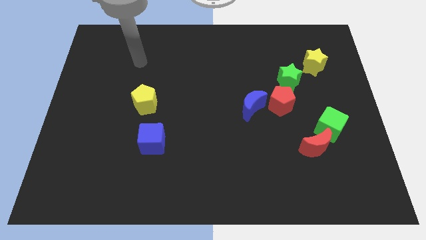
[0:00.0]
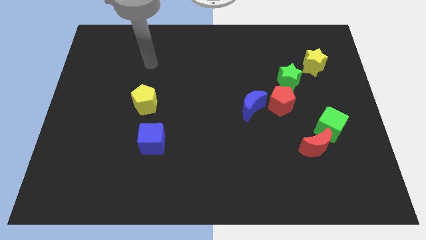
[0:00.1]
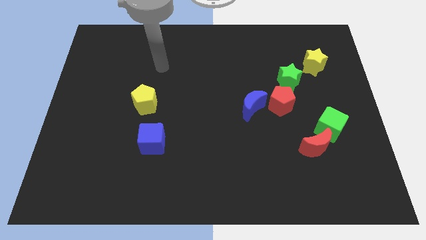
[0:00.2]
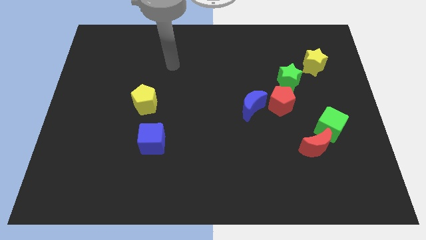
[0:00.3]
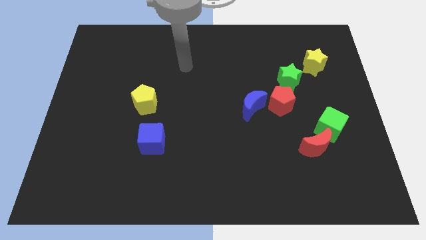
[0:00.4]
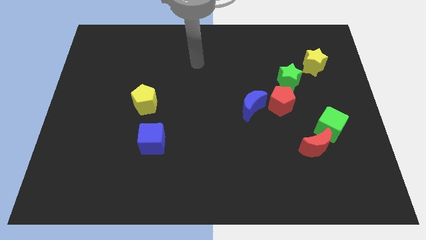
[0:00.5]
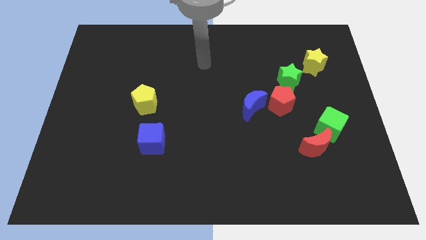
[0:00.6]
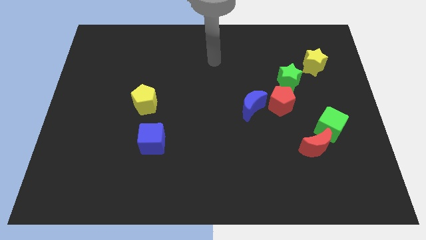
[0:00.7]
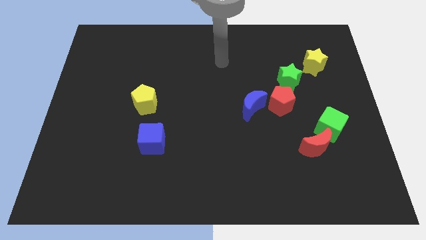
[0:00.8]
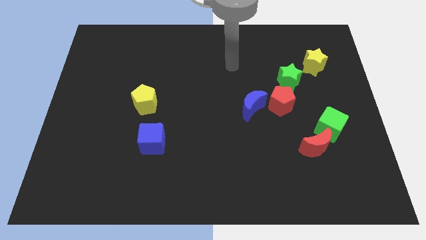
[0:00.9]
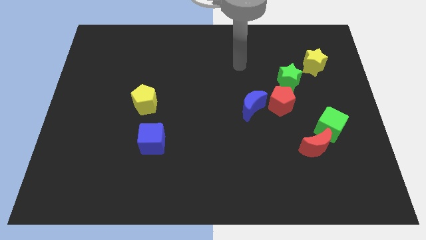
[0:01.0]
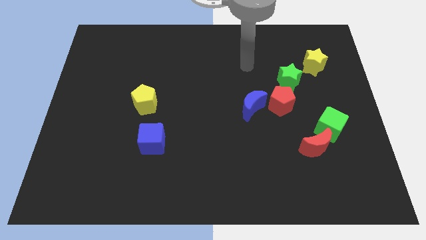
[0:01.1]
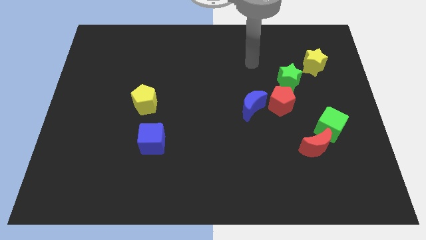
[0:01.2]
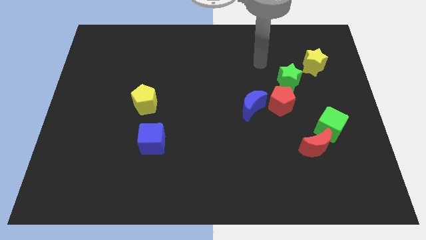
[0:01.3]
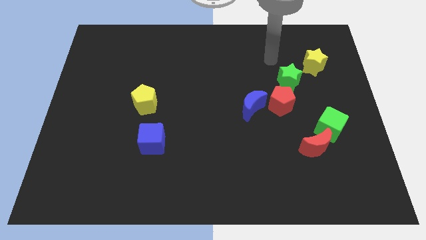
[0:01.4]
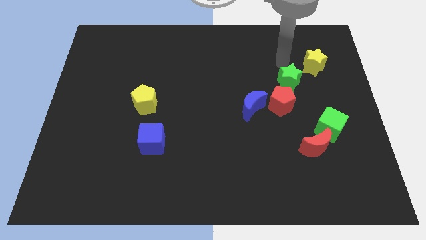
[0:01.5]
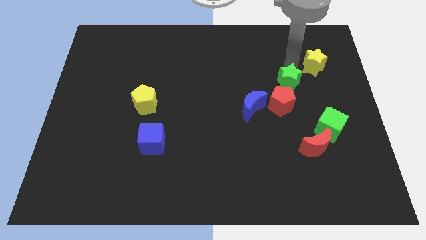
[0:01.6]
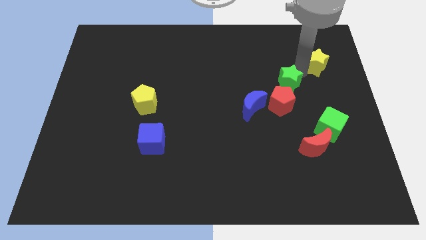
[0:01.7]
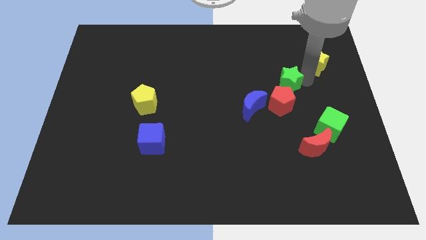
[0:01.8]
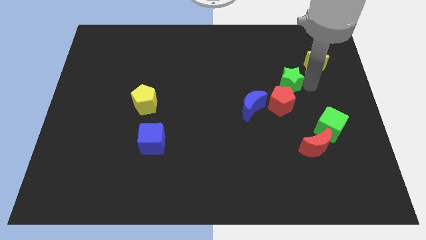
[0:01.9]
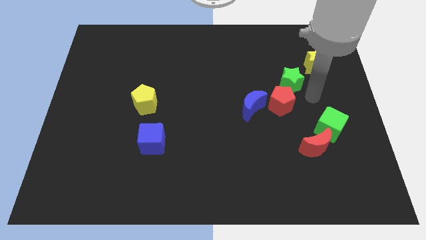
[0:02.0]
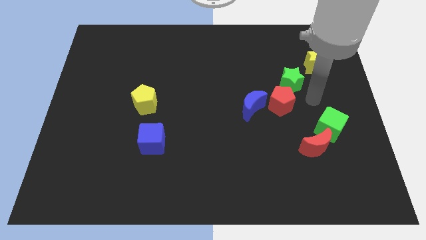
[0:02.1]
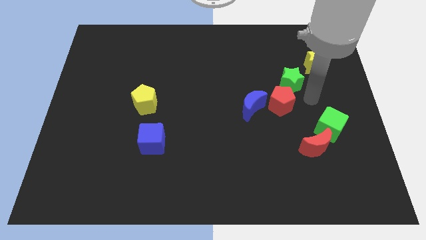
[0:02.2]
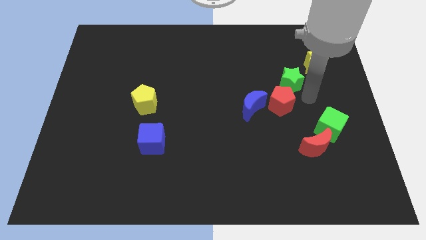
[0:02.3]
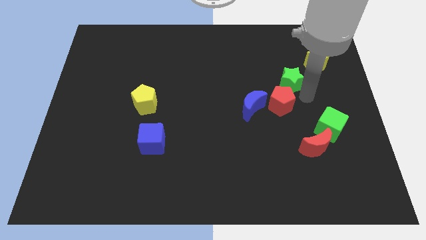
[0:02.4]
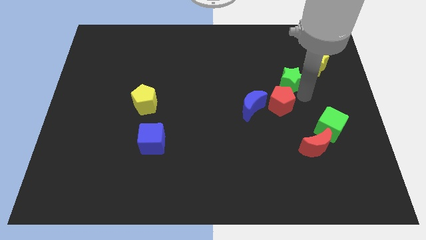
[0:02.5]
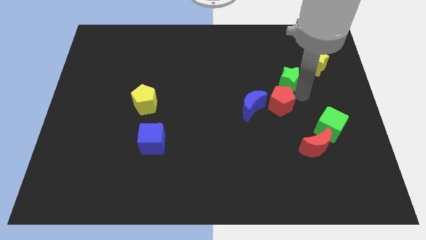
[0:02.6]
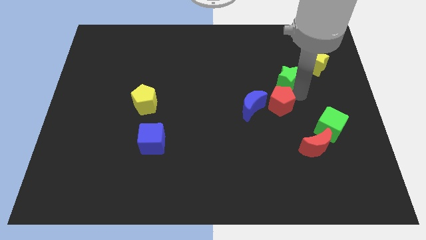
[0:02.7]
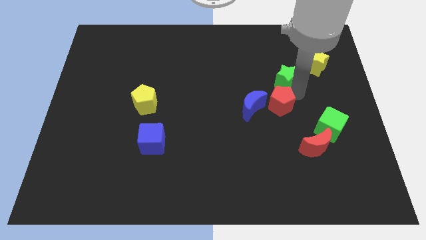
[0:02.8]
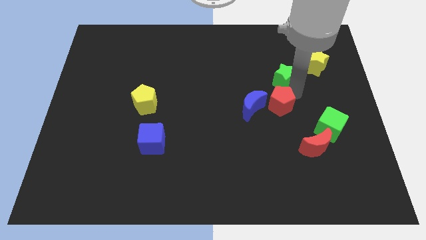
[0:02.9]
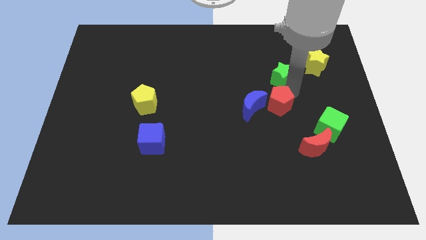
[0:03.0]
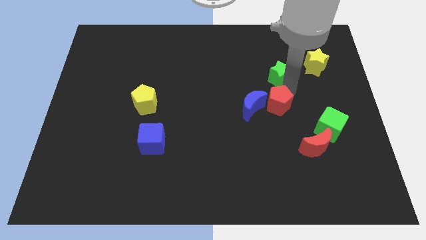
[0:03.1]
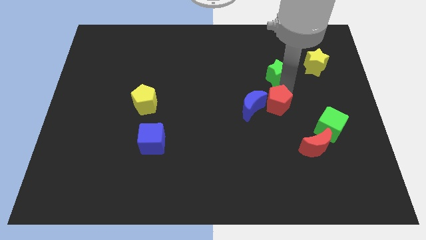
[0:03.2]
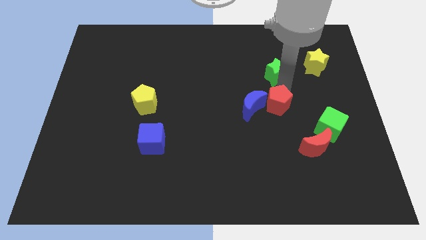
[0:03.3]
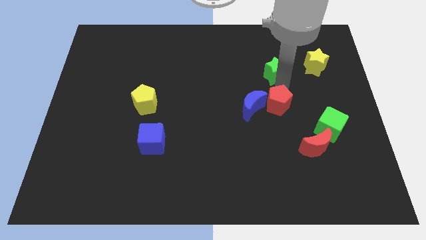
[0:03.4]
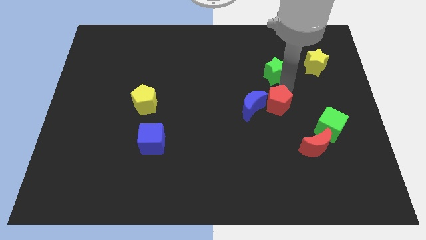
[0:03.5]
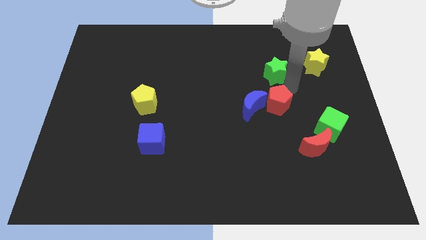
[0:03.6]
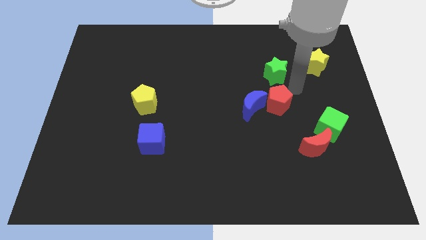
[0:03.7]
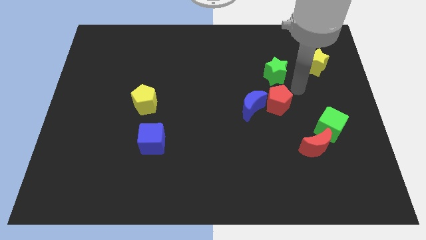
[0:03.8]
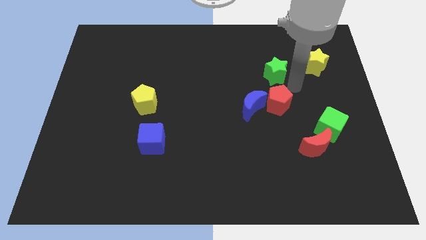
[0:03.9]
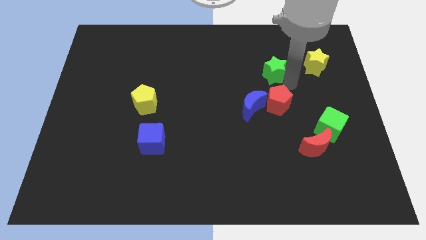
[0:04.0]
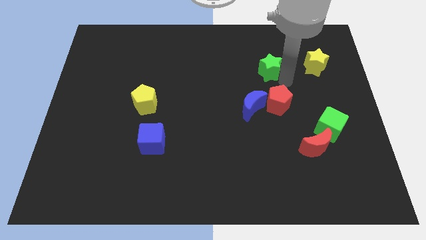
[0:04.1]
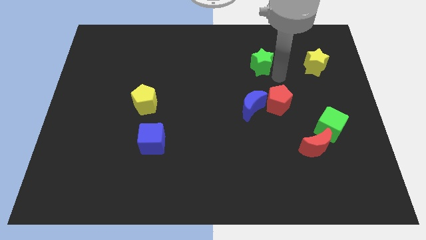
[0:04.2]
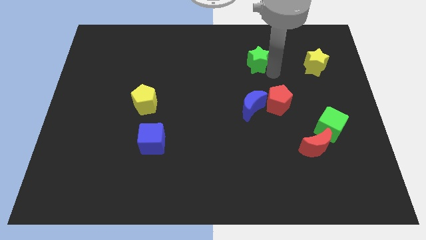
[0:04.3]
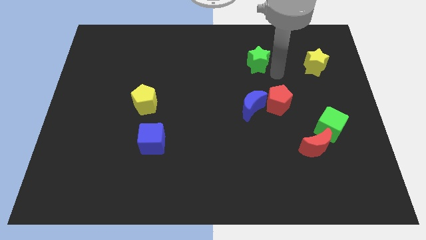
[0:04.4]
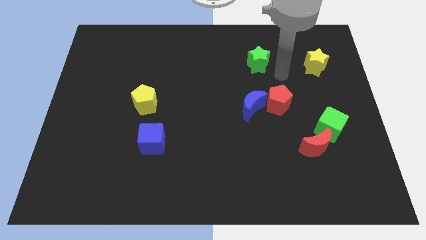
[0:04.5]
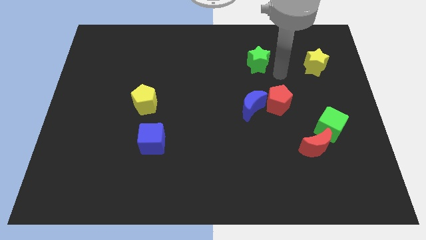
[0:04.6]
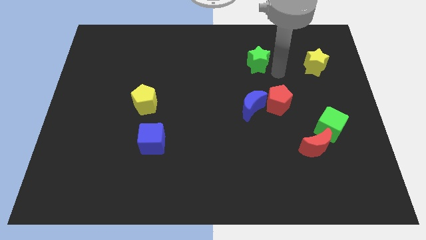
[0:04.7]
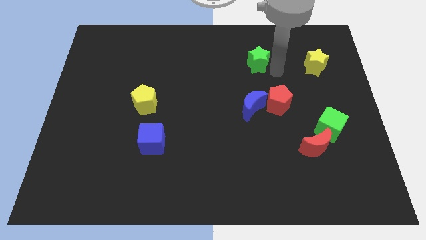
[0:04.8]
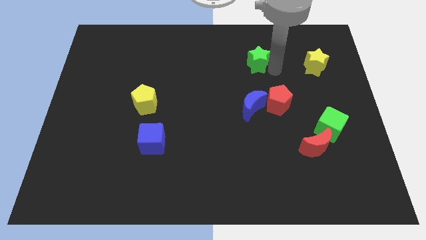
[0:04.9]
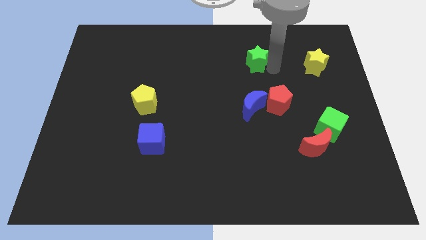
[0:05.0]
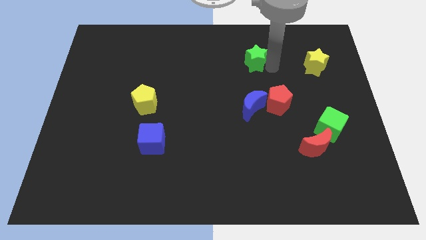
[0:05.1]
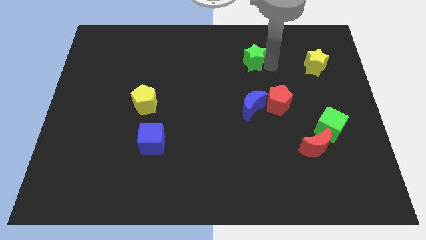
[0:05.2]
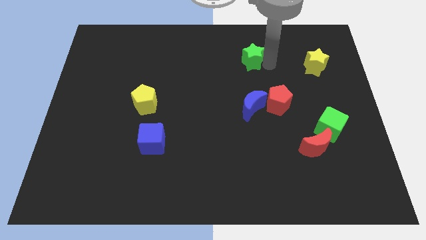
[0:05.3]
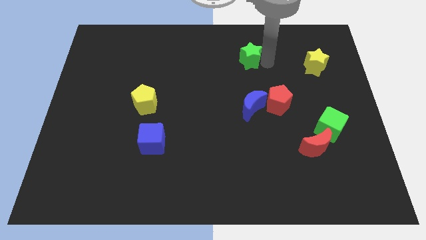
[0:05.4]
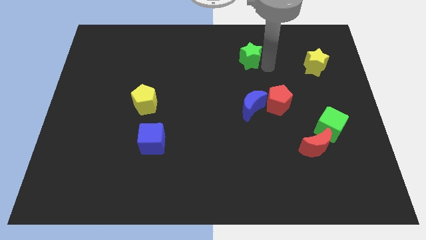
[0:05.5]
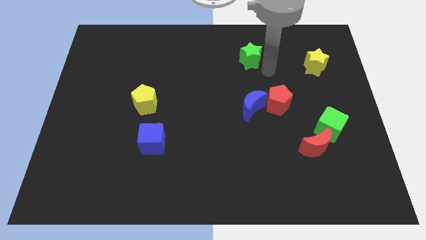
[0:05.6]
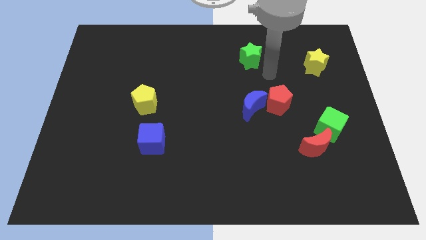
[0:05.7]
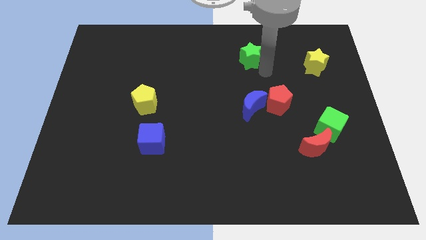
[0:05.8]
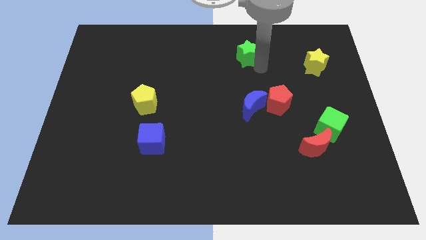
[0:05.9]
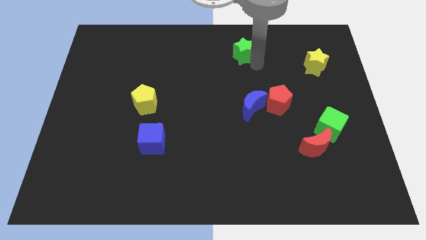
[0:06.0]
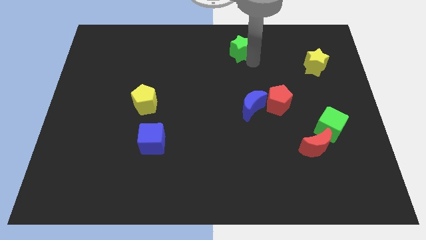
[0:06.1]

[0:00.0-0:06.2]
put the green star to the towards your base

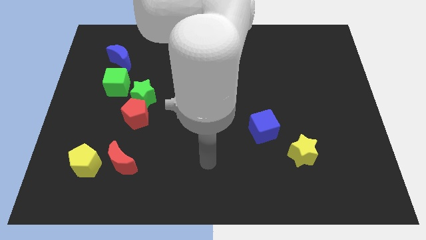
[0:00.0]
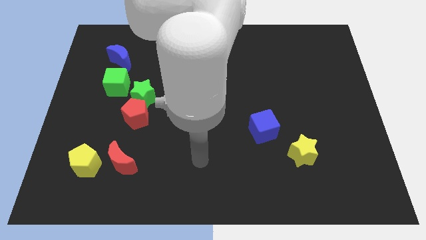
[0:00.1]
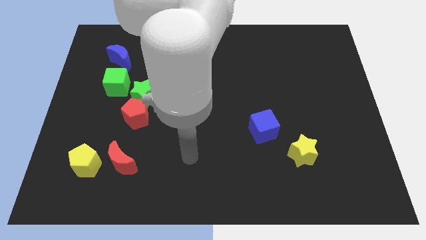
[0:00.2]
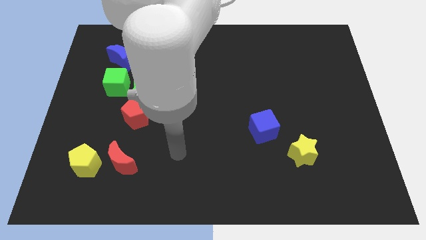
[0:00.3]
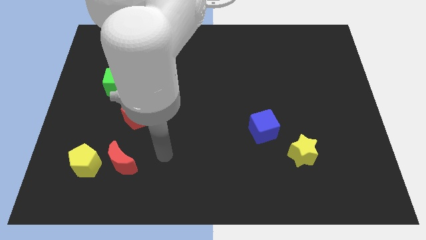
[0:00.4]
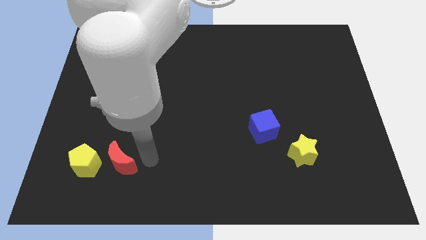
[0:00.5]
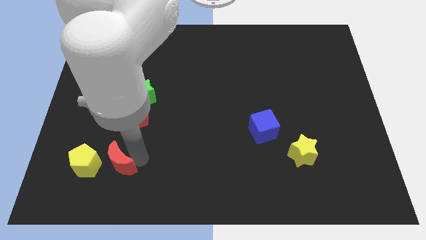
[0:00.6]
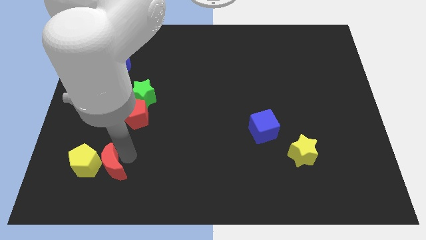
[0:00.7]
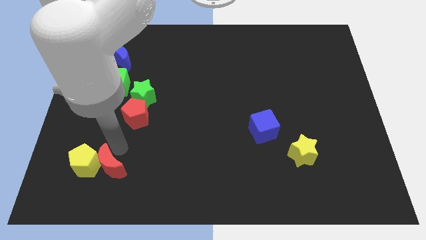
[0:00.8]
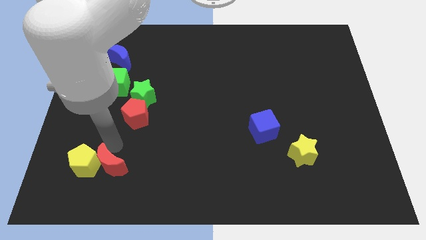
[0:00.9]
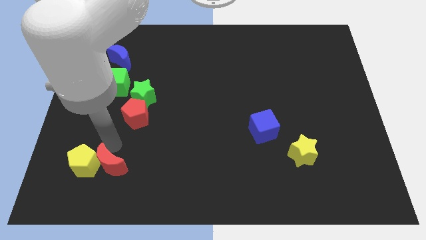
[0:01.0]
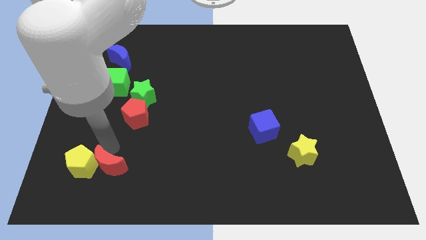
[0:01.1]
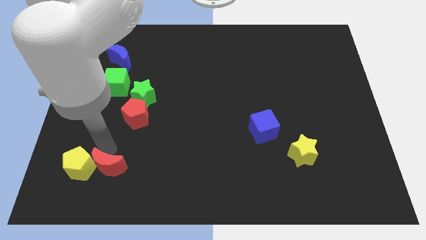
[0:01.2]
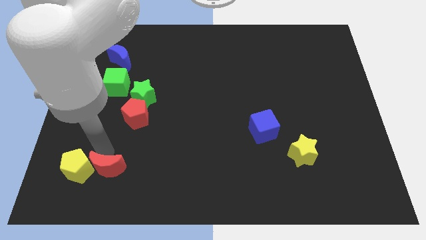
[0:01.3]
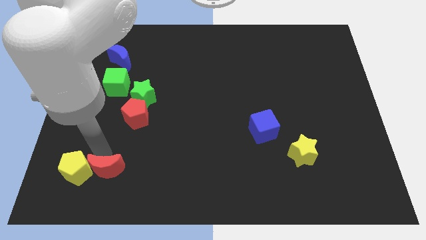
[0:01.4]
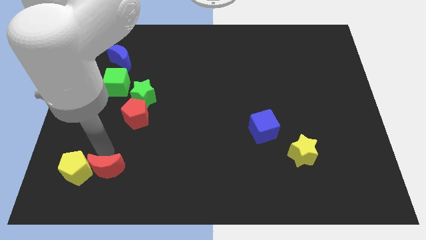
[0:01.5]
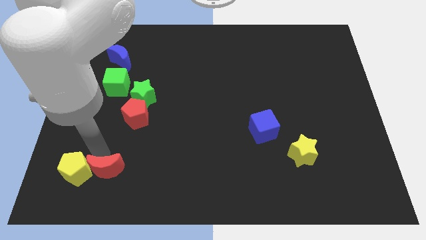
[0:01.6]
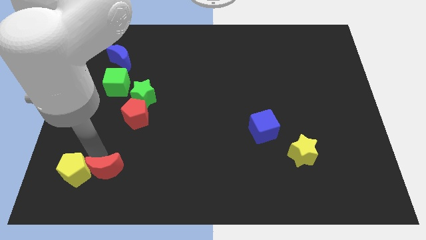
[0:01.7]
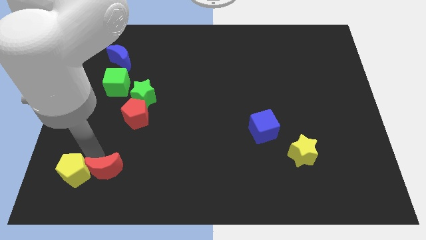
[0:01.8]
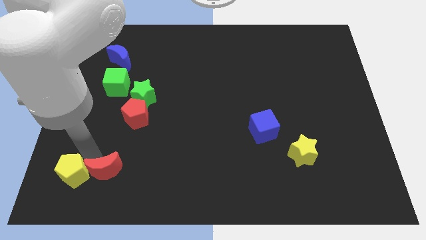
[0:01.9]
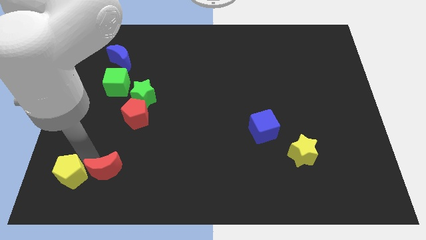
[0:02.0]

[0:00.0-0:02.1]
push the yellow pentagon to the bottom left
